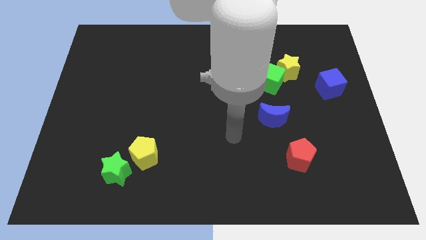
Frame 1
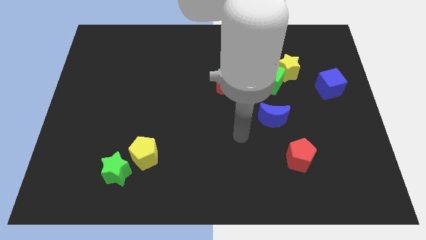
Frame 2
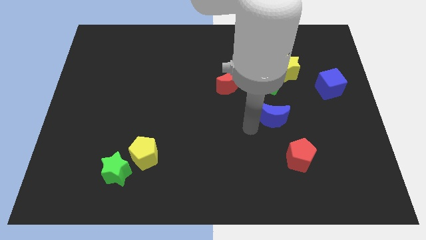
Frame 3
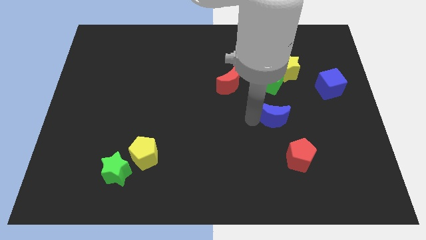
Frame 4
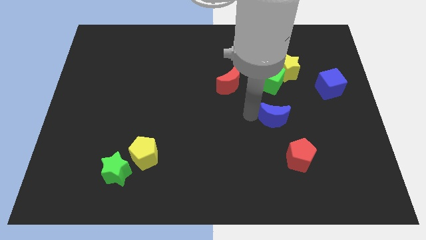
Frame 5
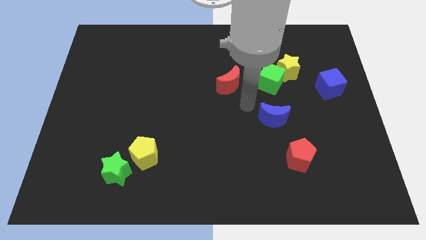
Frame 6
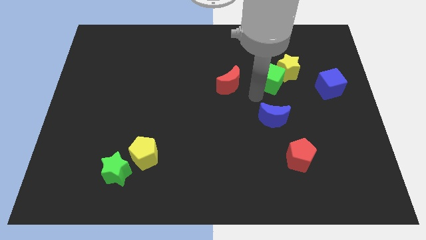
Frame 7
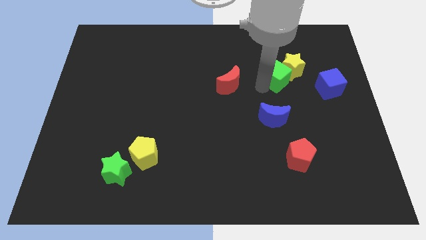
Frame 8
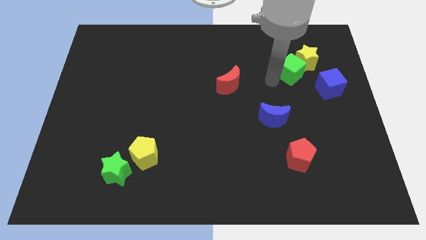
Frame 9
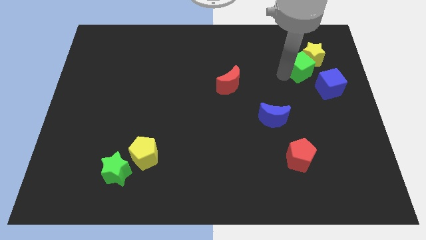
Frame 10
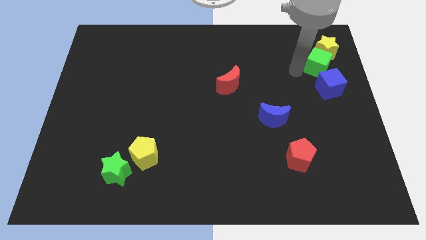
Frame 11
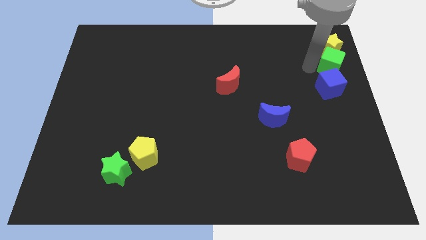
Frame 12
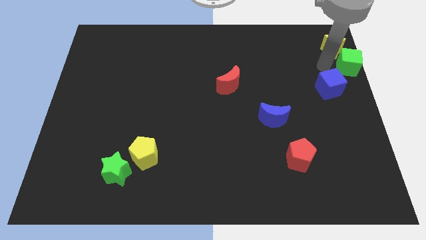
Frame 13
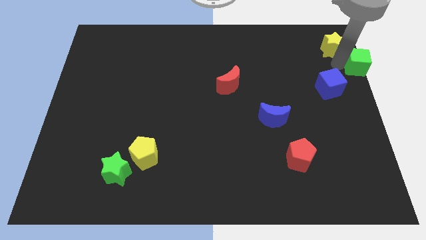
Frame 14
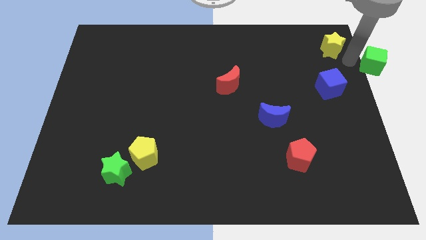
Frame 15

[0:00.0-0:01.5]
separate the yellow star from the green cube

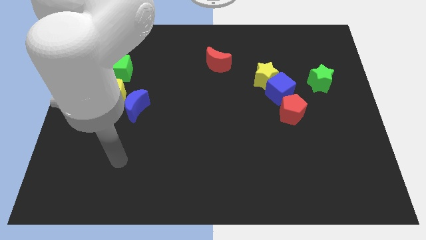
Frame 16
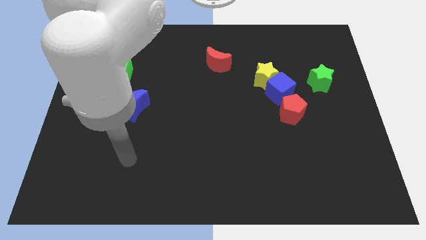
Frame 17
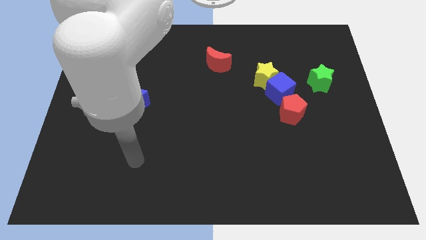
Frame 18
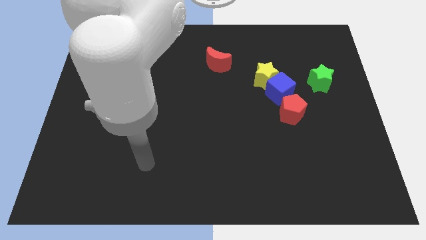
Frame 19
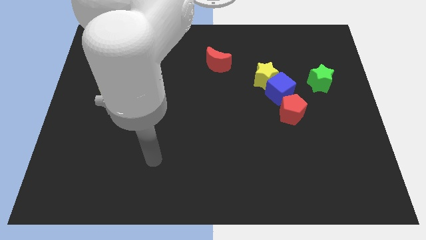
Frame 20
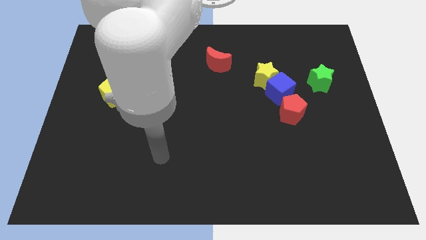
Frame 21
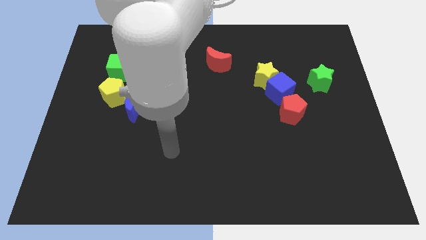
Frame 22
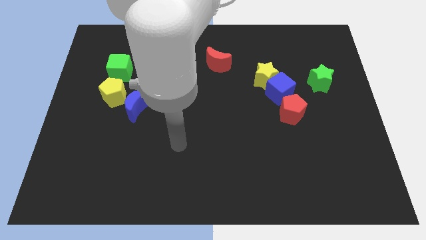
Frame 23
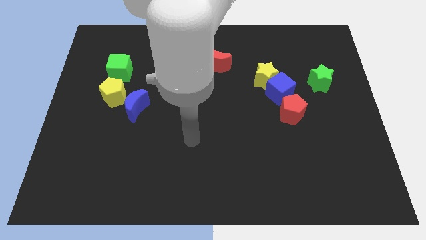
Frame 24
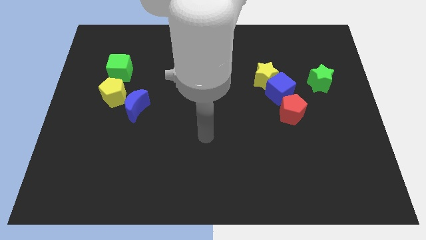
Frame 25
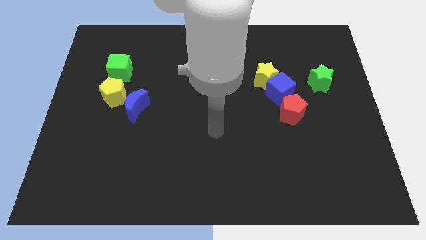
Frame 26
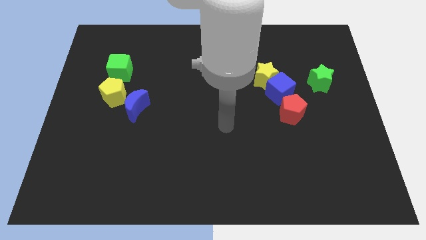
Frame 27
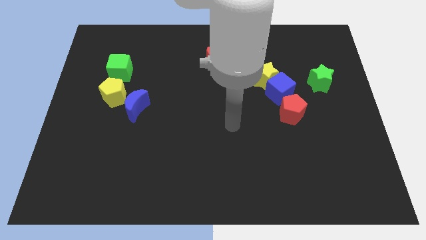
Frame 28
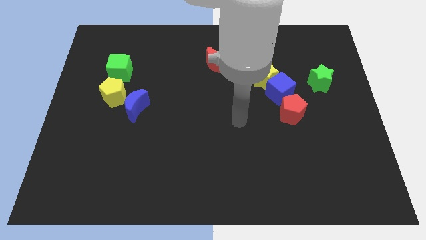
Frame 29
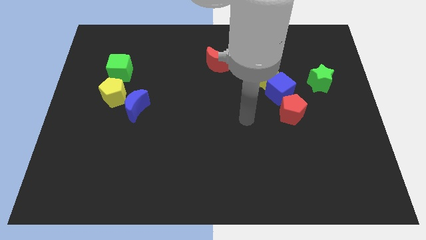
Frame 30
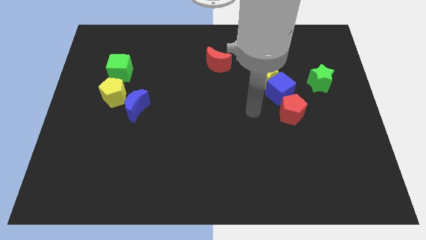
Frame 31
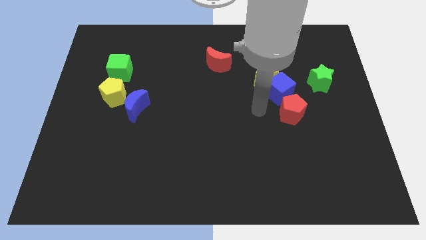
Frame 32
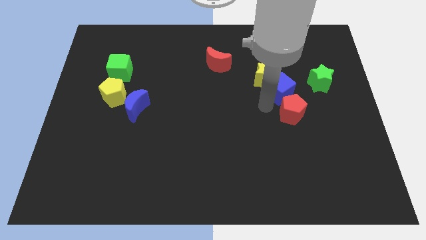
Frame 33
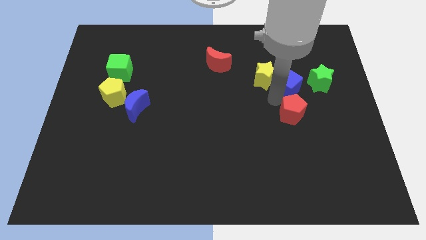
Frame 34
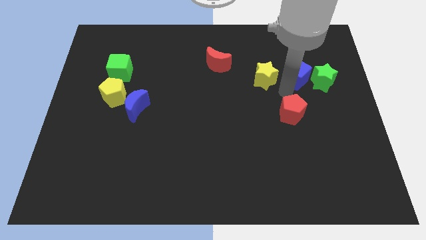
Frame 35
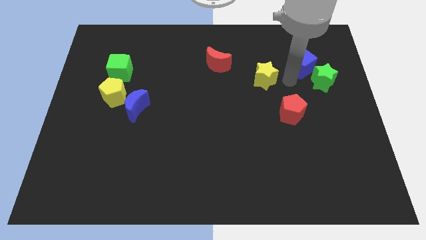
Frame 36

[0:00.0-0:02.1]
move the yellow star away from the blue cube

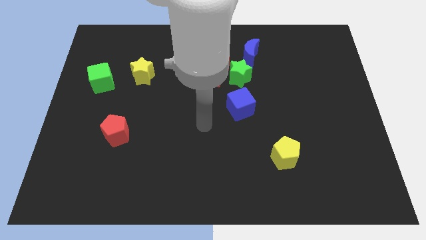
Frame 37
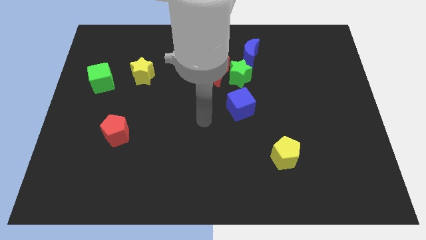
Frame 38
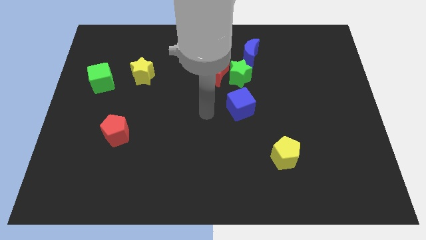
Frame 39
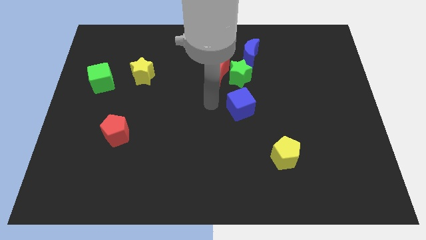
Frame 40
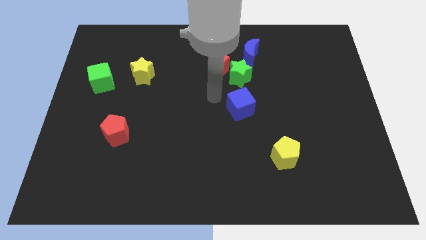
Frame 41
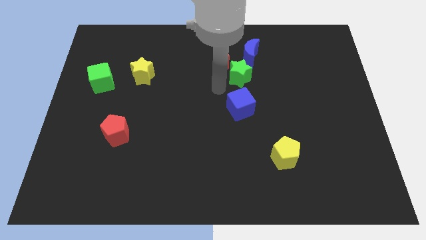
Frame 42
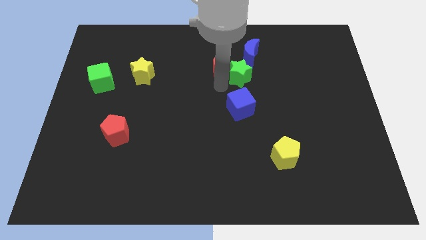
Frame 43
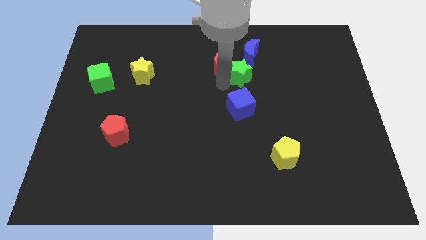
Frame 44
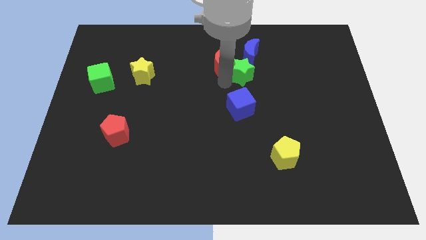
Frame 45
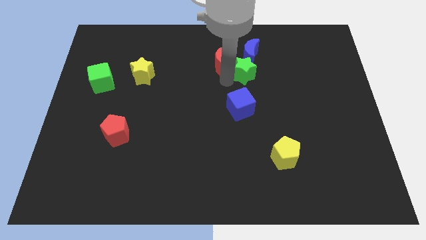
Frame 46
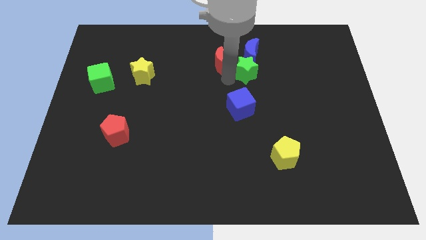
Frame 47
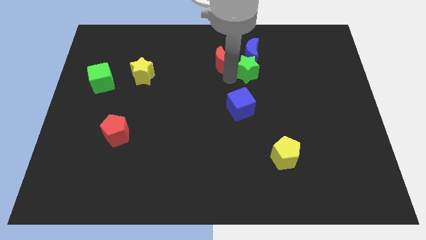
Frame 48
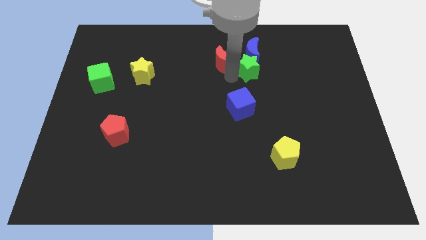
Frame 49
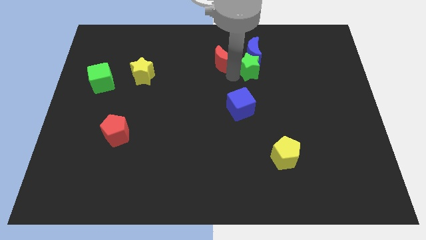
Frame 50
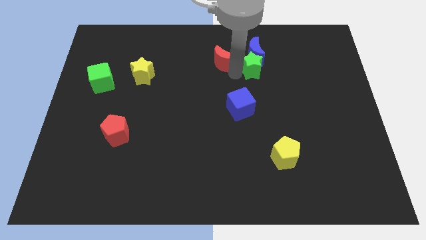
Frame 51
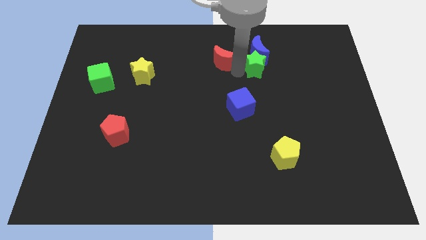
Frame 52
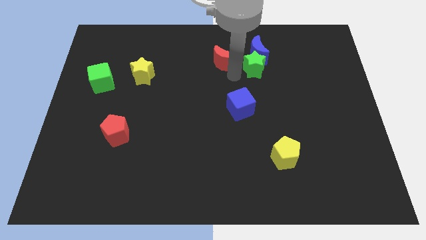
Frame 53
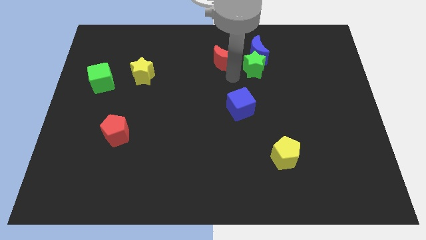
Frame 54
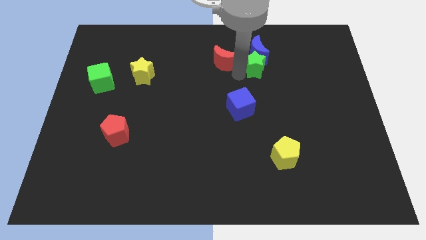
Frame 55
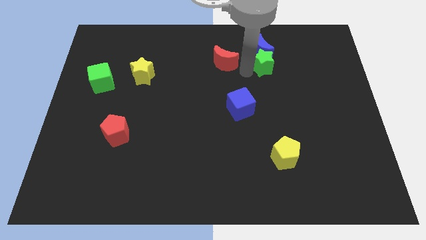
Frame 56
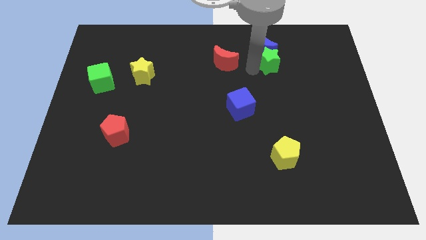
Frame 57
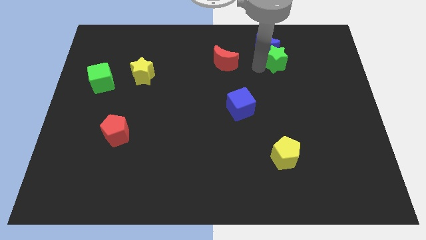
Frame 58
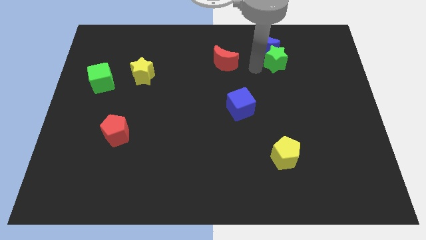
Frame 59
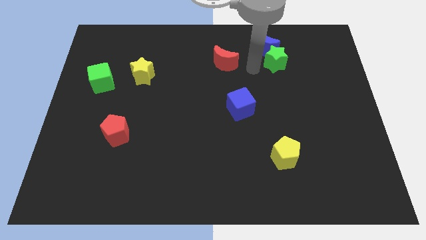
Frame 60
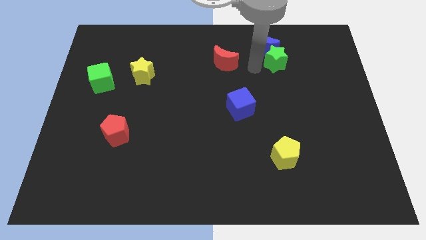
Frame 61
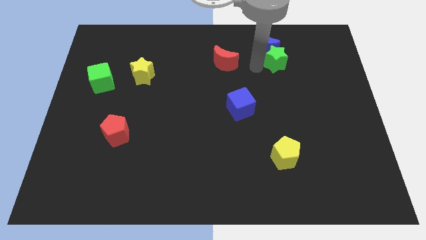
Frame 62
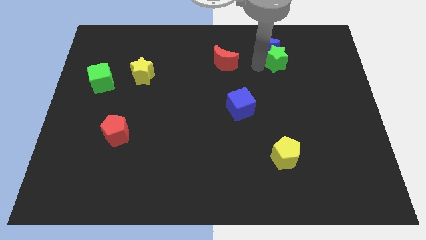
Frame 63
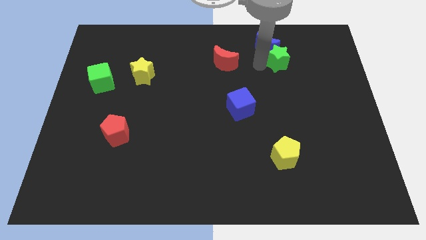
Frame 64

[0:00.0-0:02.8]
pull the green star apart from the red moon, blue moon, and blue cube

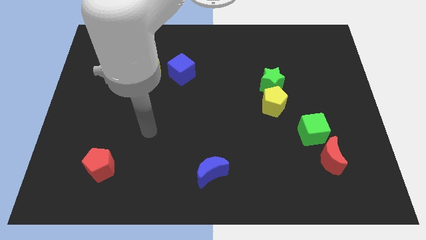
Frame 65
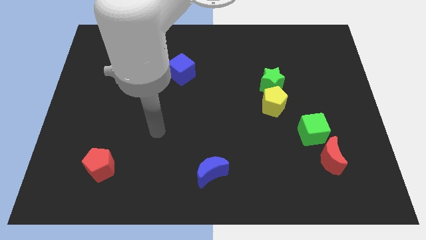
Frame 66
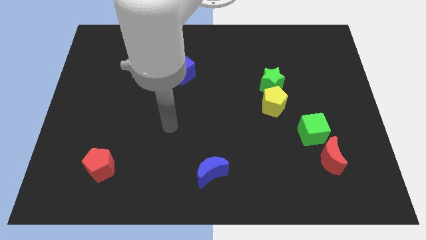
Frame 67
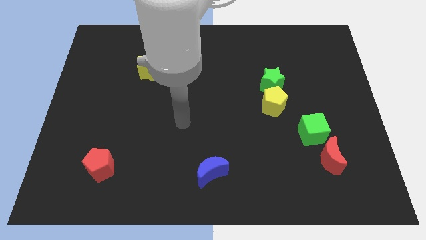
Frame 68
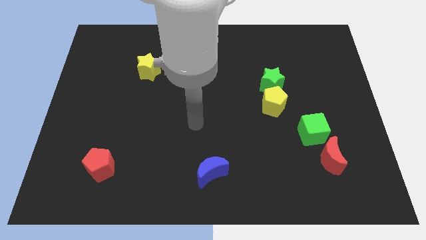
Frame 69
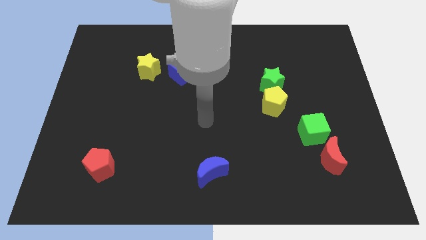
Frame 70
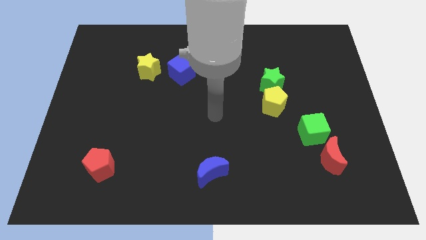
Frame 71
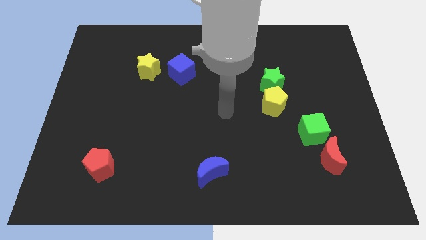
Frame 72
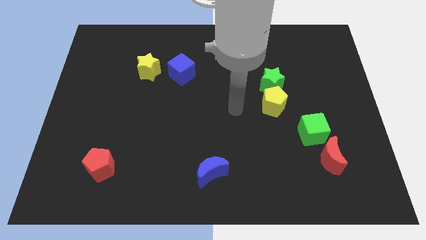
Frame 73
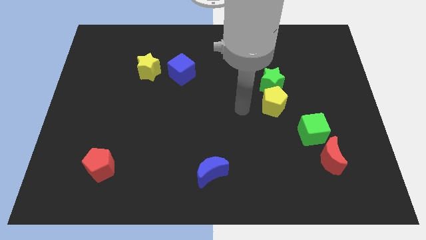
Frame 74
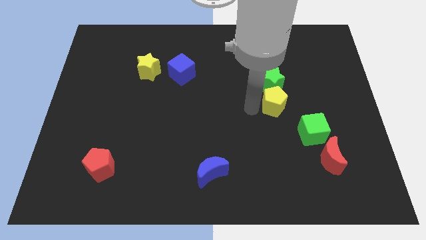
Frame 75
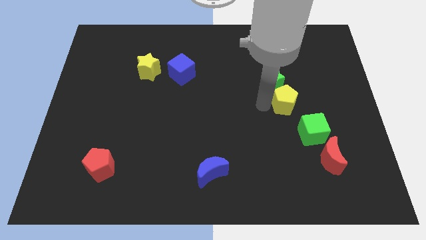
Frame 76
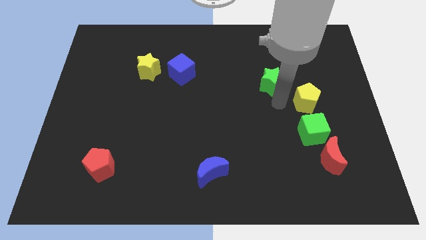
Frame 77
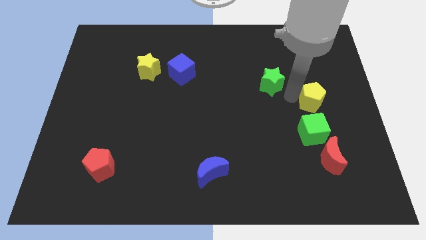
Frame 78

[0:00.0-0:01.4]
pull the green star apart from the yellow pentagon

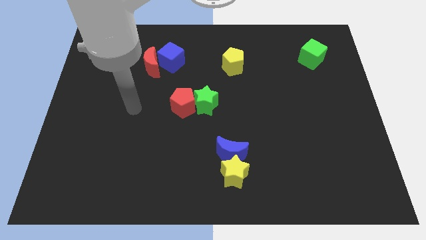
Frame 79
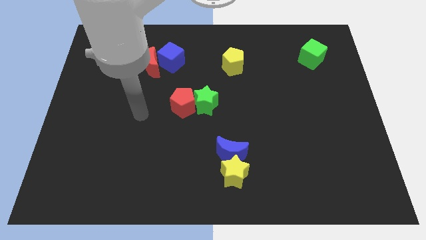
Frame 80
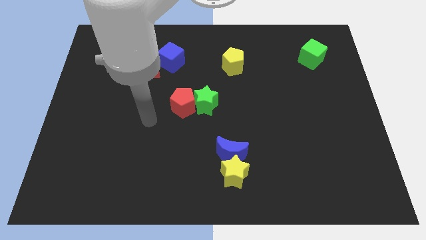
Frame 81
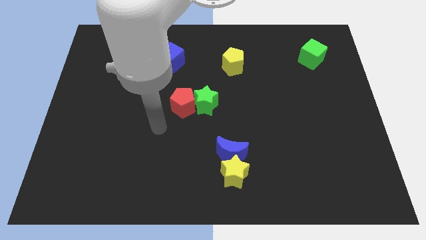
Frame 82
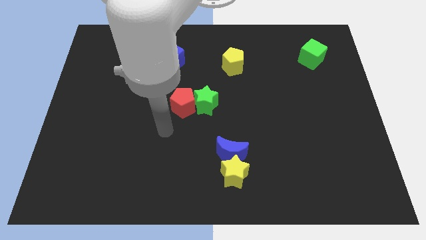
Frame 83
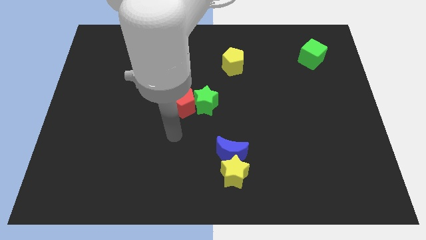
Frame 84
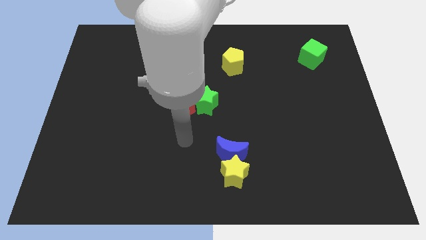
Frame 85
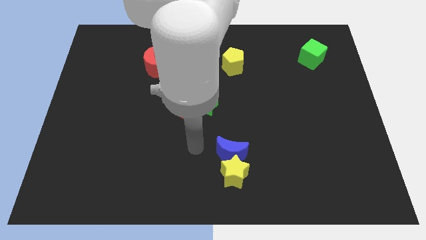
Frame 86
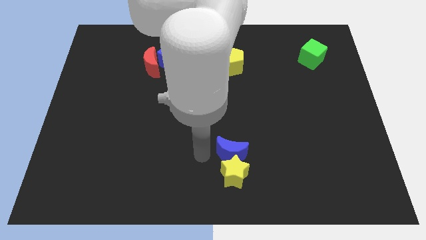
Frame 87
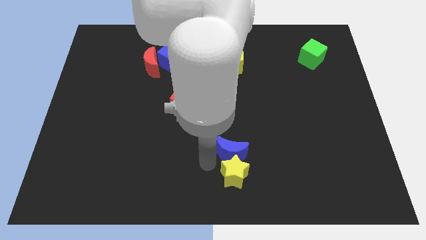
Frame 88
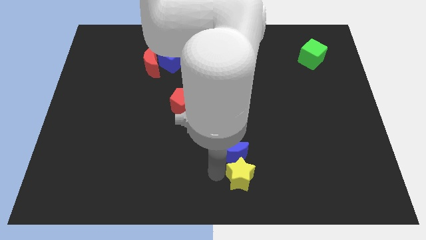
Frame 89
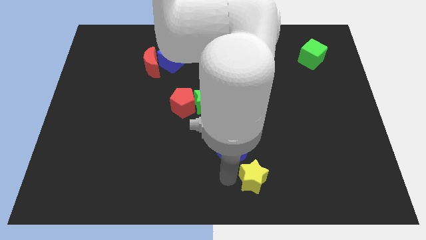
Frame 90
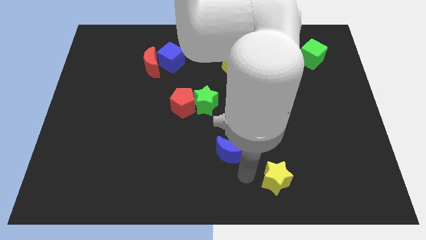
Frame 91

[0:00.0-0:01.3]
pull the blue moon apart from the yellow star

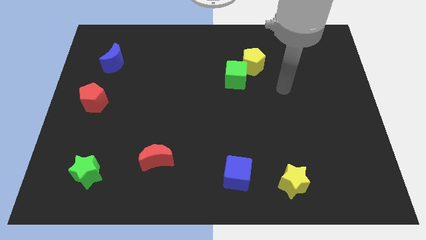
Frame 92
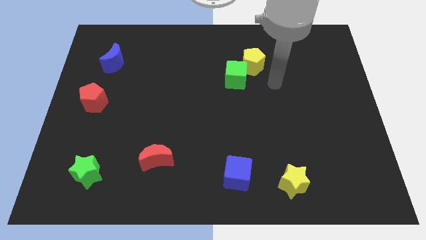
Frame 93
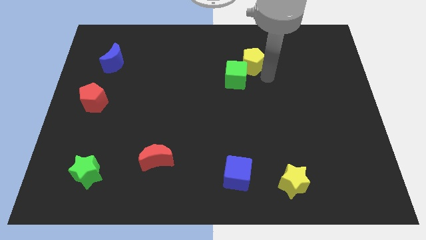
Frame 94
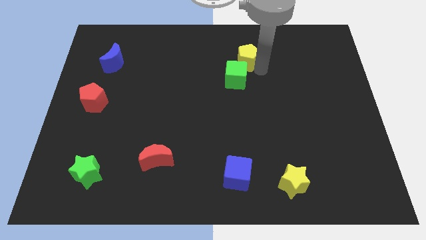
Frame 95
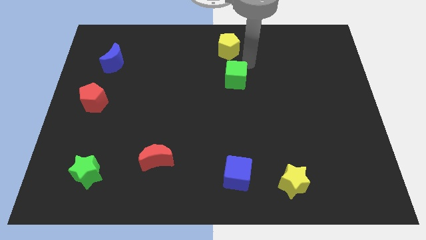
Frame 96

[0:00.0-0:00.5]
pull the green cube apart from the yellow pentagon
